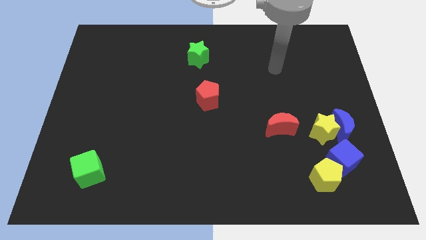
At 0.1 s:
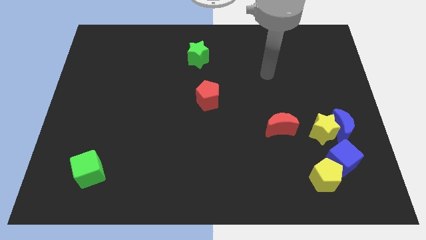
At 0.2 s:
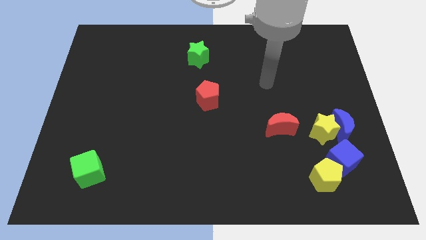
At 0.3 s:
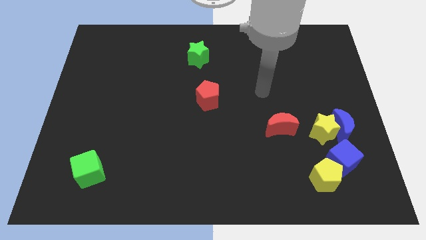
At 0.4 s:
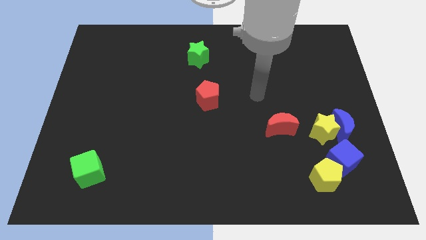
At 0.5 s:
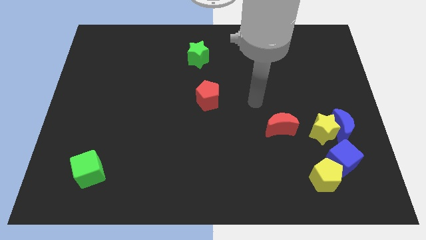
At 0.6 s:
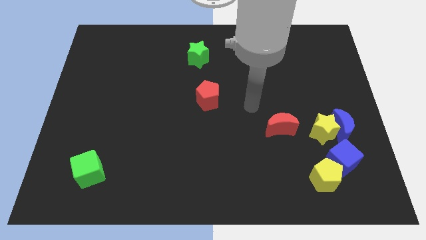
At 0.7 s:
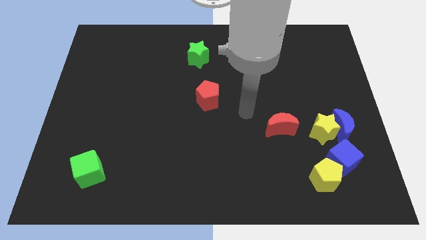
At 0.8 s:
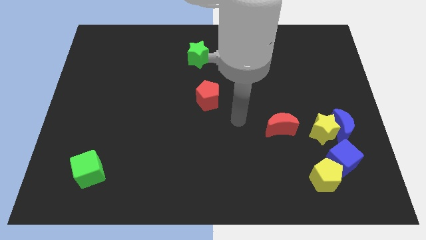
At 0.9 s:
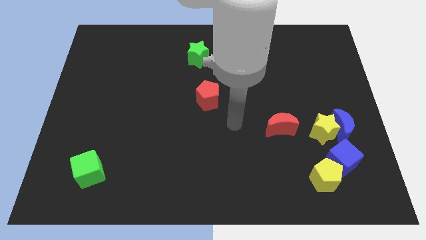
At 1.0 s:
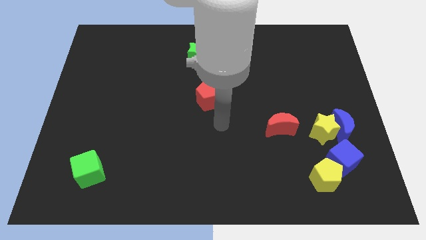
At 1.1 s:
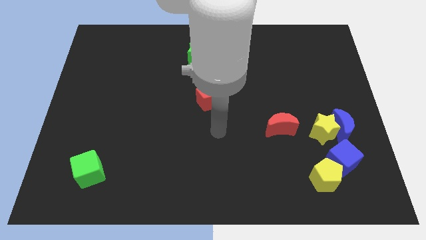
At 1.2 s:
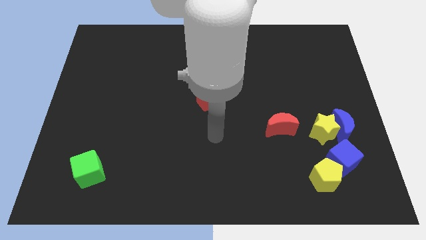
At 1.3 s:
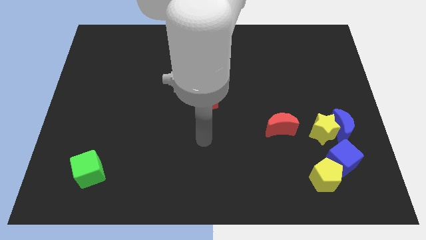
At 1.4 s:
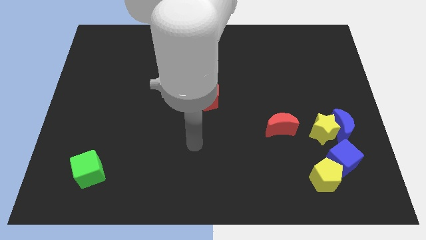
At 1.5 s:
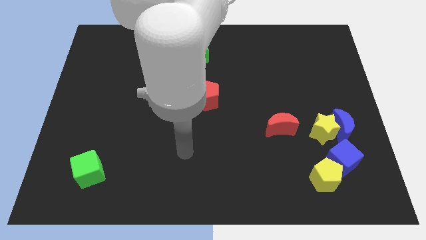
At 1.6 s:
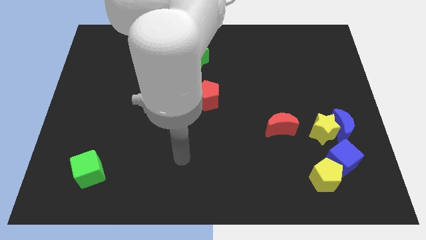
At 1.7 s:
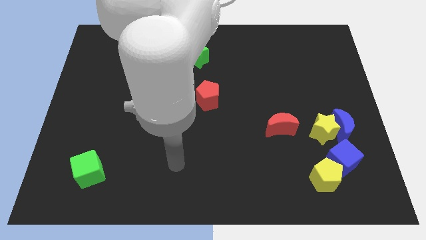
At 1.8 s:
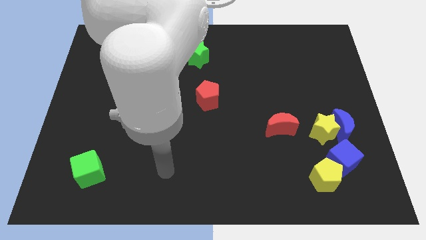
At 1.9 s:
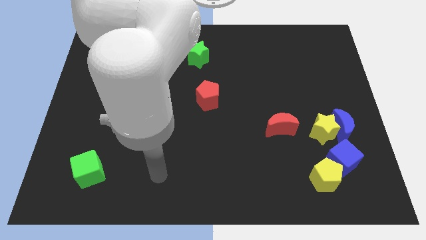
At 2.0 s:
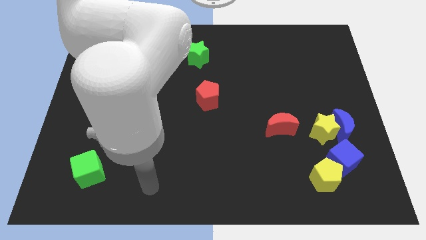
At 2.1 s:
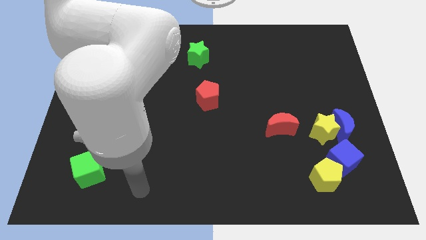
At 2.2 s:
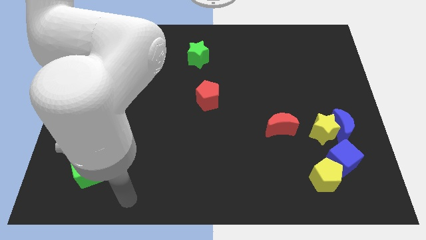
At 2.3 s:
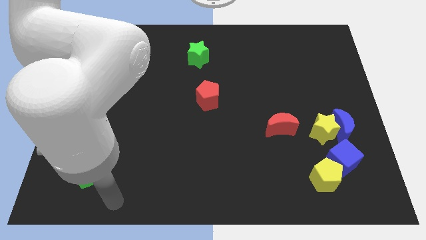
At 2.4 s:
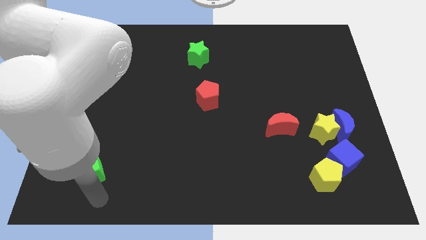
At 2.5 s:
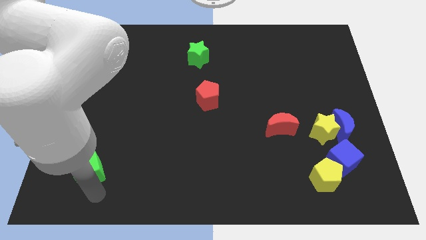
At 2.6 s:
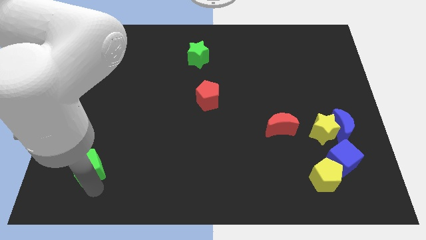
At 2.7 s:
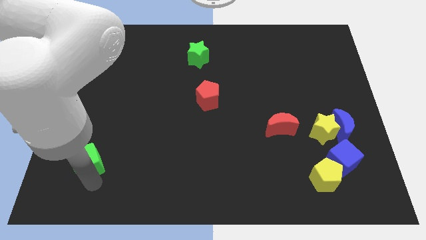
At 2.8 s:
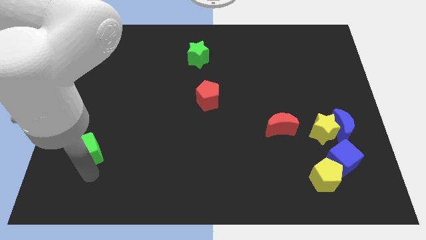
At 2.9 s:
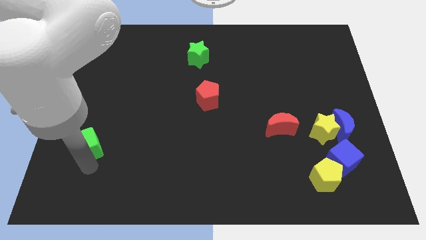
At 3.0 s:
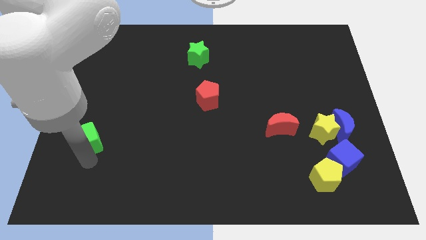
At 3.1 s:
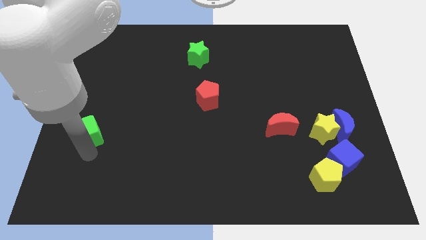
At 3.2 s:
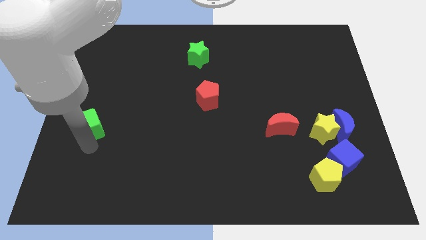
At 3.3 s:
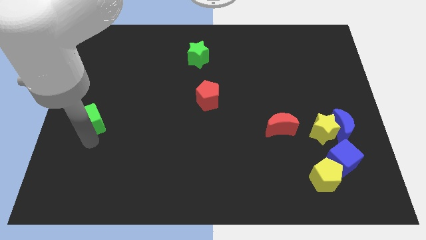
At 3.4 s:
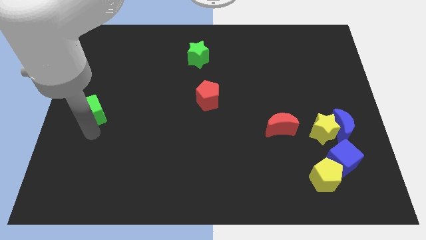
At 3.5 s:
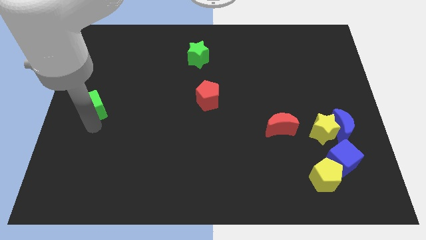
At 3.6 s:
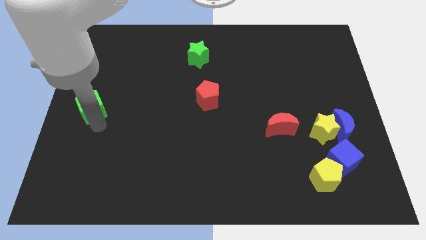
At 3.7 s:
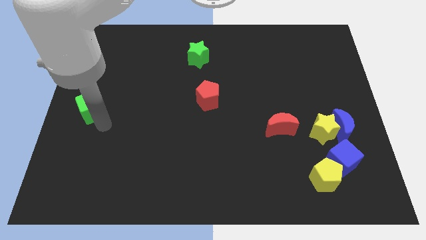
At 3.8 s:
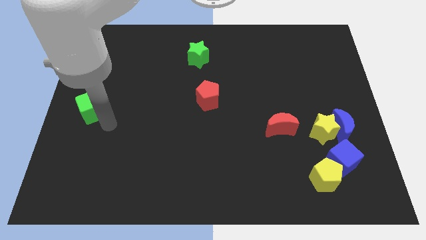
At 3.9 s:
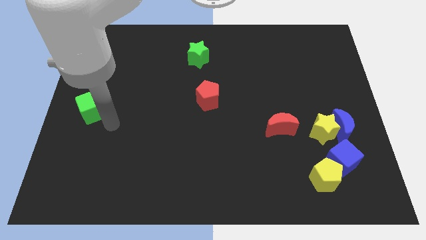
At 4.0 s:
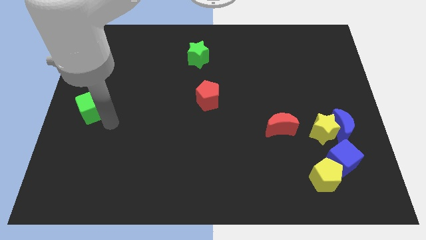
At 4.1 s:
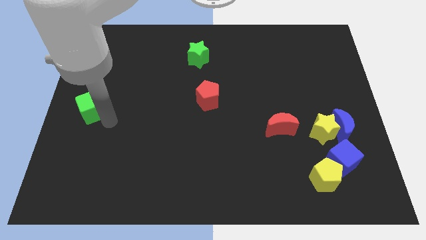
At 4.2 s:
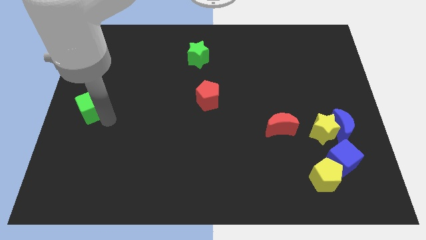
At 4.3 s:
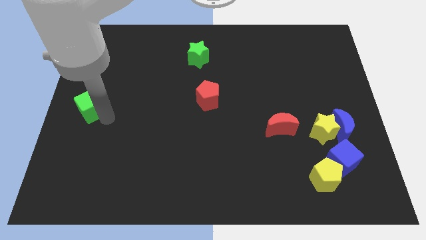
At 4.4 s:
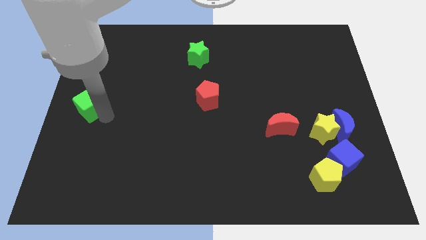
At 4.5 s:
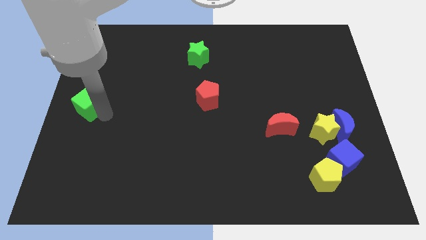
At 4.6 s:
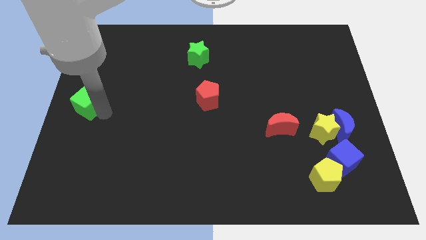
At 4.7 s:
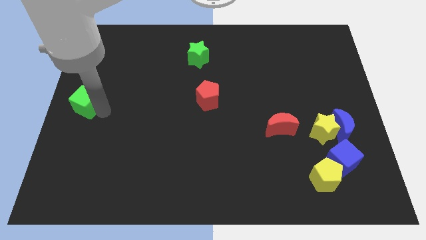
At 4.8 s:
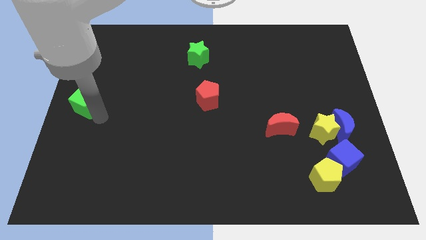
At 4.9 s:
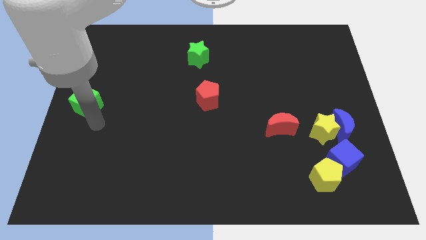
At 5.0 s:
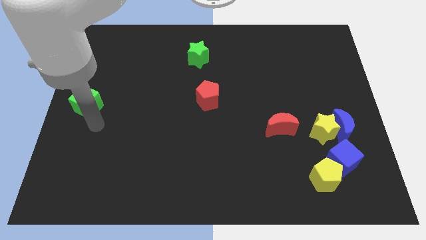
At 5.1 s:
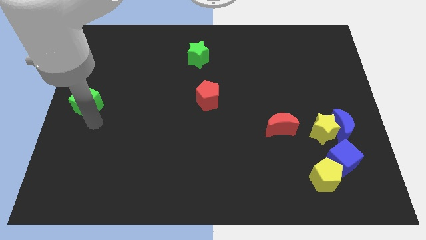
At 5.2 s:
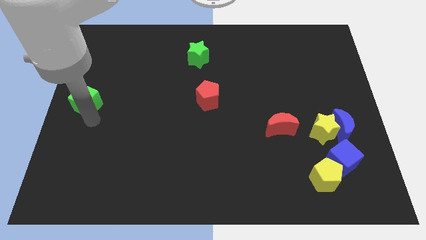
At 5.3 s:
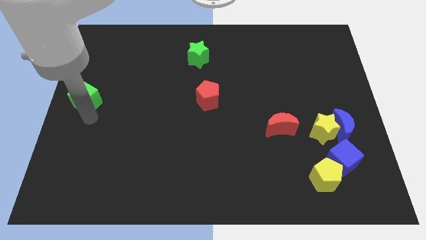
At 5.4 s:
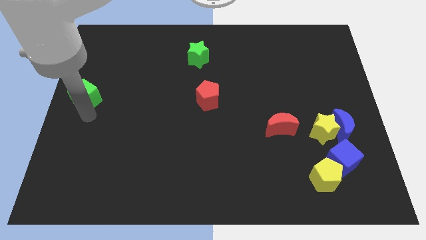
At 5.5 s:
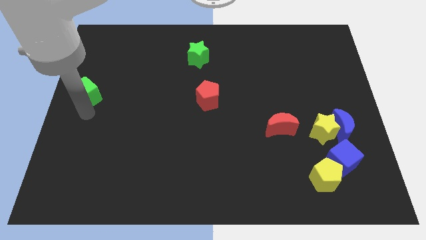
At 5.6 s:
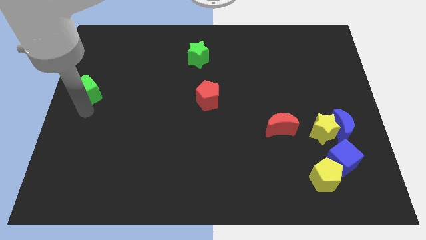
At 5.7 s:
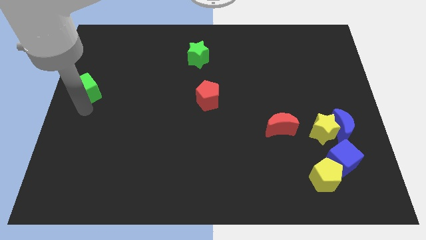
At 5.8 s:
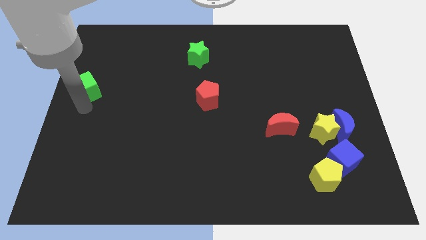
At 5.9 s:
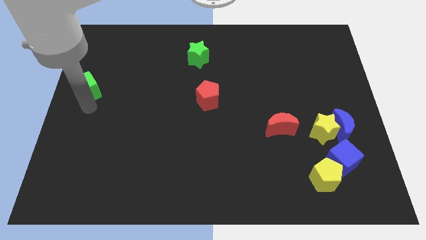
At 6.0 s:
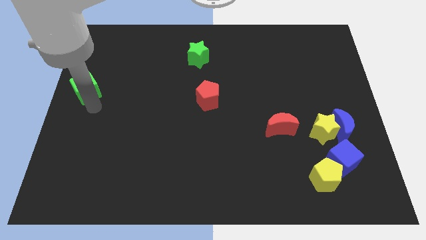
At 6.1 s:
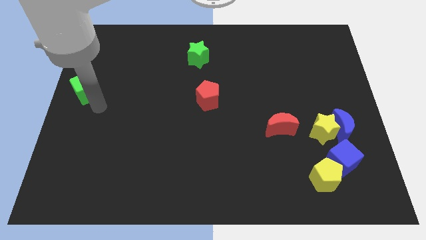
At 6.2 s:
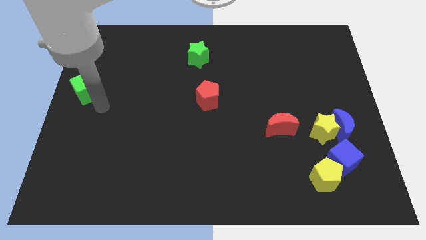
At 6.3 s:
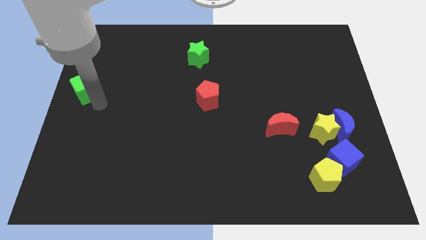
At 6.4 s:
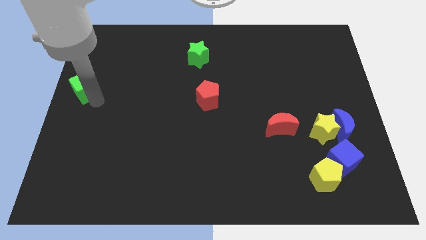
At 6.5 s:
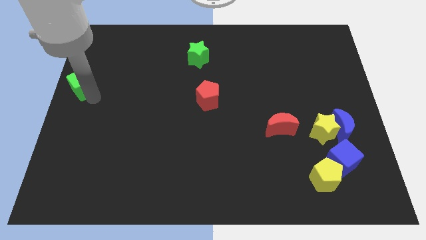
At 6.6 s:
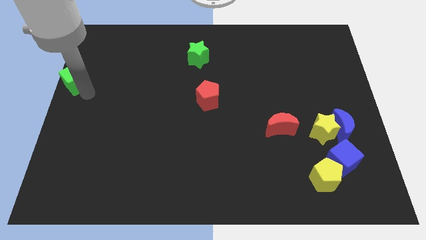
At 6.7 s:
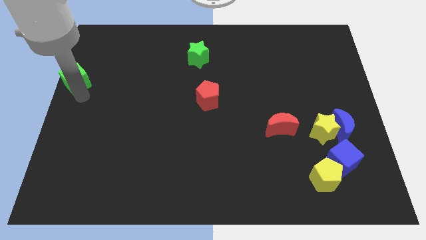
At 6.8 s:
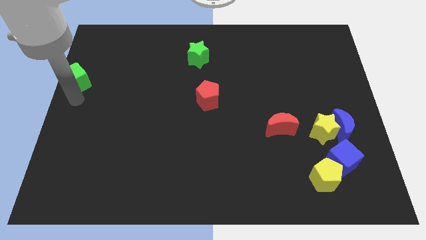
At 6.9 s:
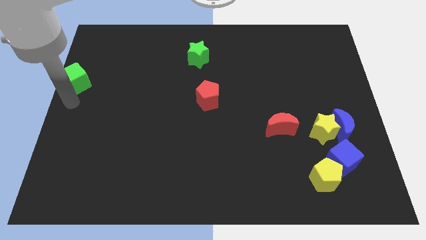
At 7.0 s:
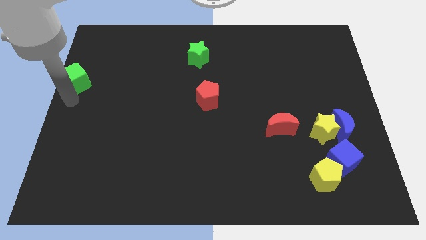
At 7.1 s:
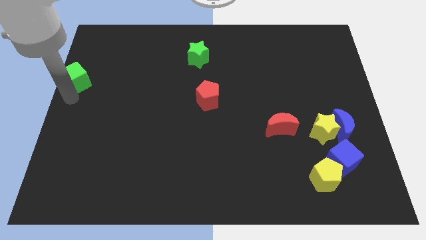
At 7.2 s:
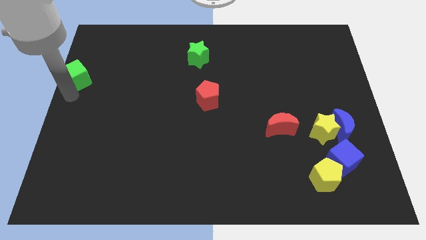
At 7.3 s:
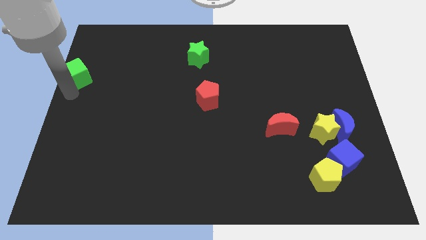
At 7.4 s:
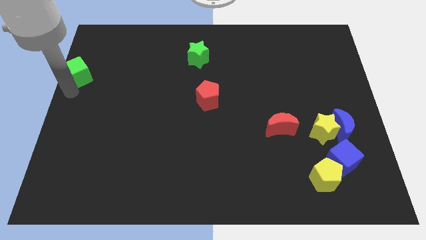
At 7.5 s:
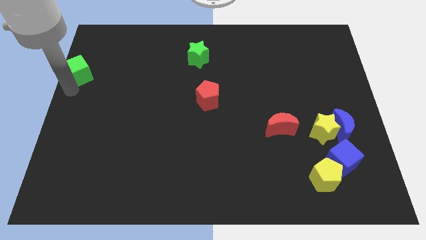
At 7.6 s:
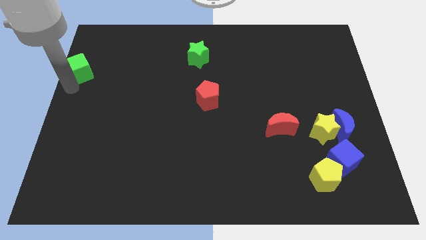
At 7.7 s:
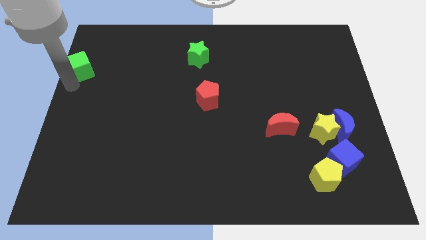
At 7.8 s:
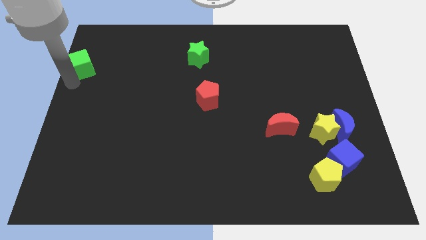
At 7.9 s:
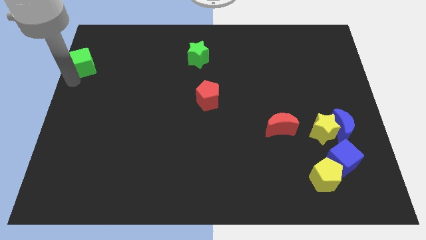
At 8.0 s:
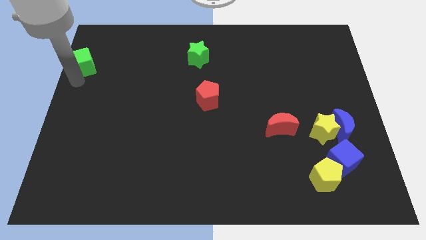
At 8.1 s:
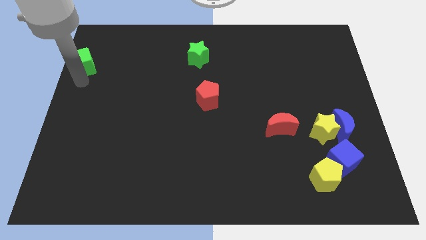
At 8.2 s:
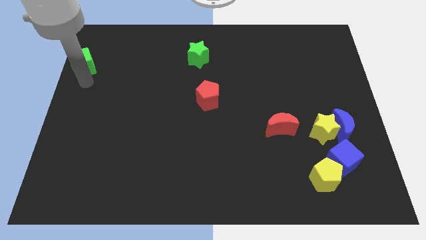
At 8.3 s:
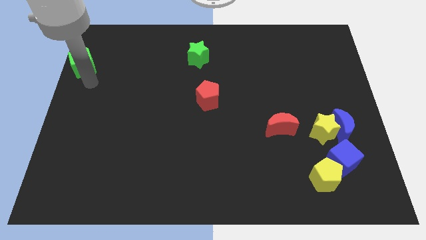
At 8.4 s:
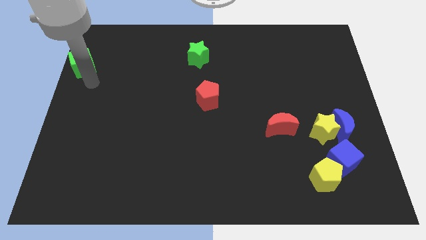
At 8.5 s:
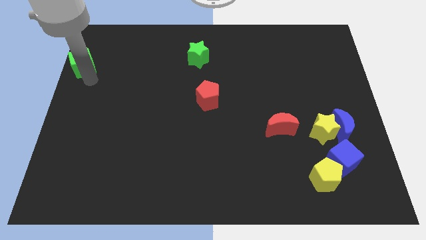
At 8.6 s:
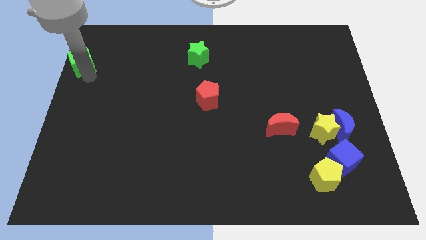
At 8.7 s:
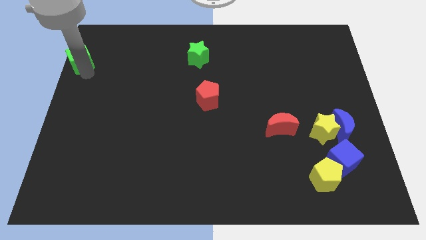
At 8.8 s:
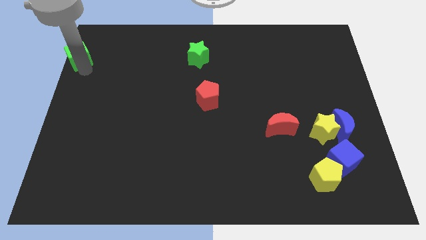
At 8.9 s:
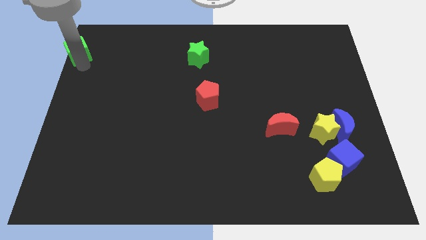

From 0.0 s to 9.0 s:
put the green cube to the top left corner
